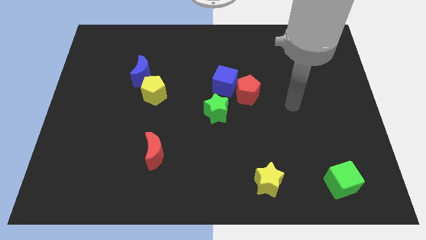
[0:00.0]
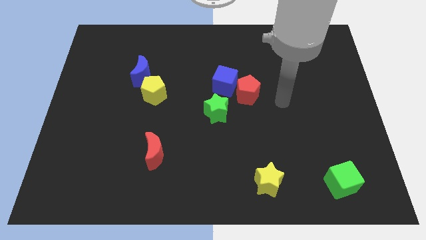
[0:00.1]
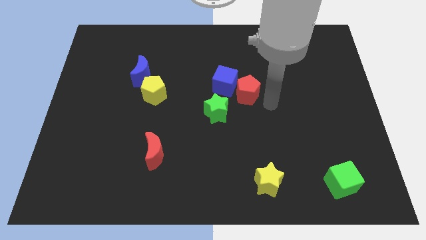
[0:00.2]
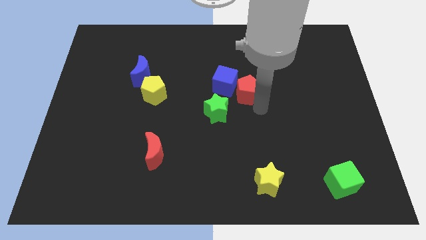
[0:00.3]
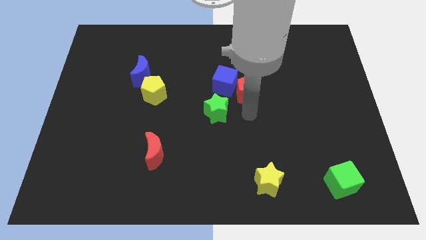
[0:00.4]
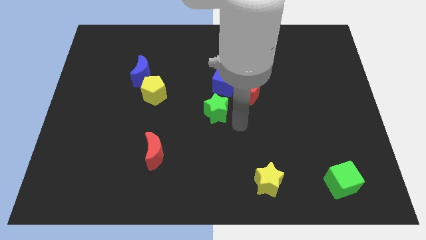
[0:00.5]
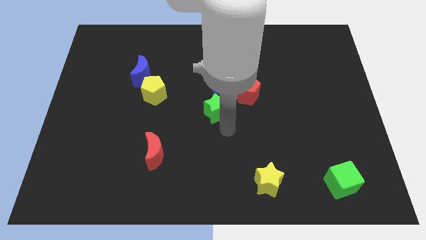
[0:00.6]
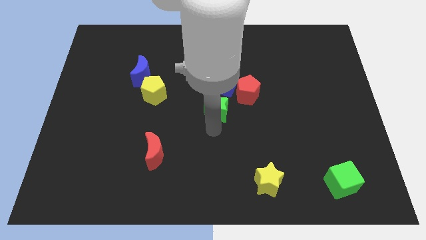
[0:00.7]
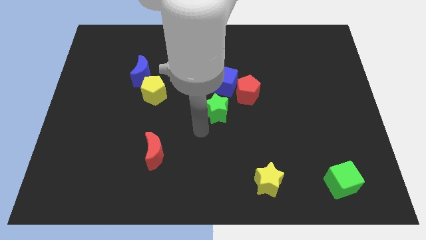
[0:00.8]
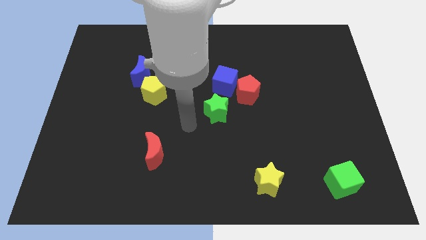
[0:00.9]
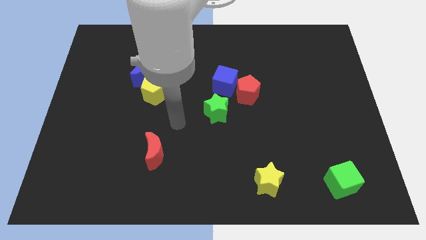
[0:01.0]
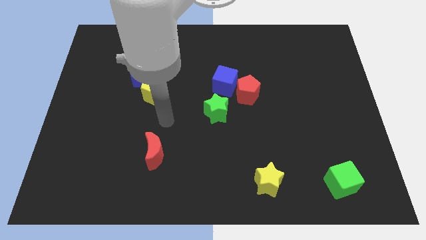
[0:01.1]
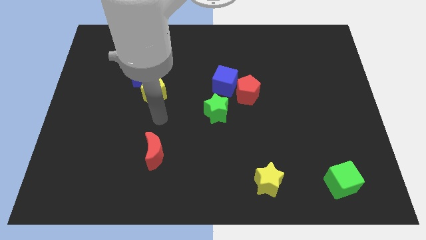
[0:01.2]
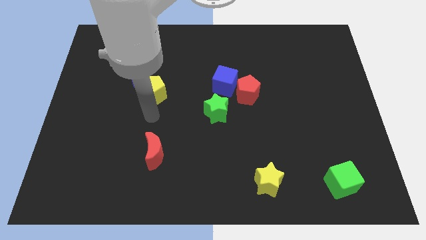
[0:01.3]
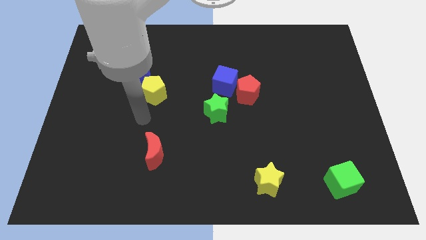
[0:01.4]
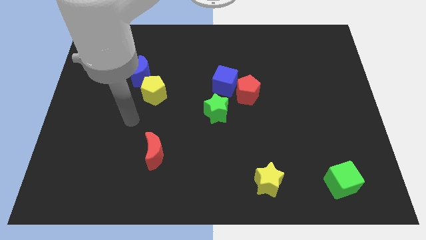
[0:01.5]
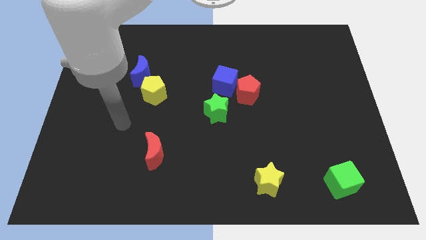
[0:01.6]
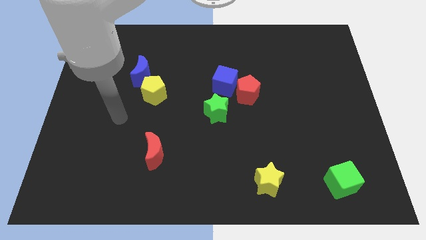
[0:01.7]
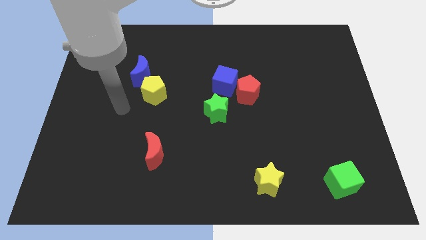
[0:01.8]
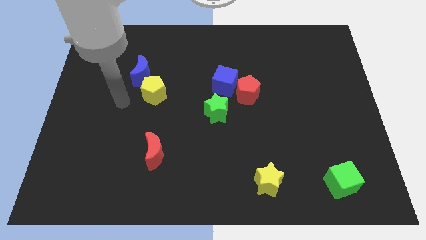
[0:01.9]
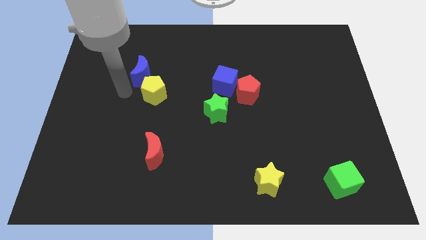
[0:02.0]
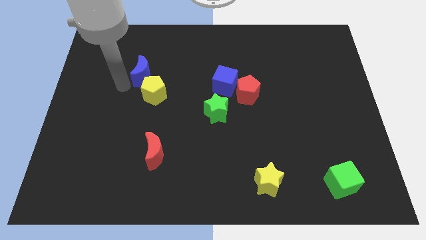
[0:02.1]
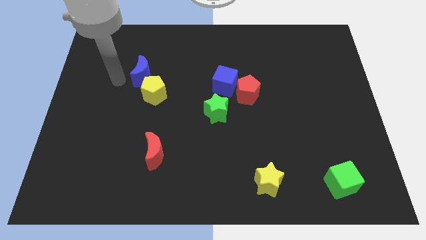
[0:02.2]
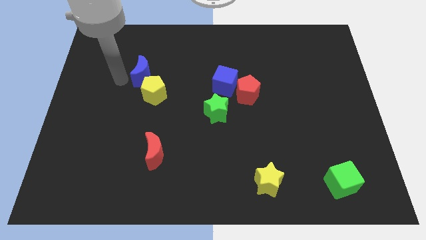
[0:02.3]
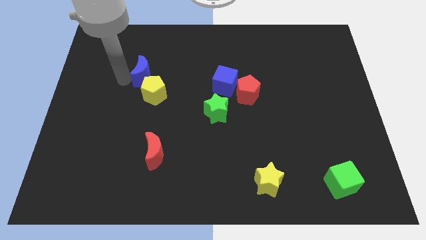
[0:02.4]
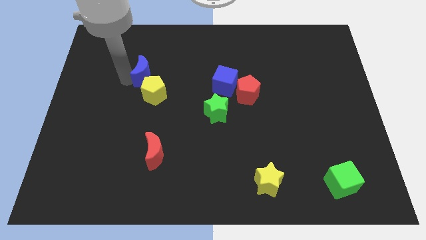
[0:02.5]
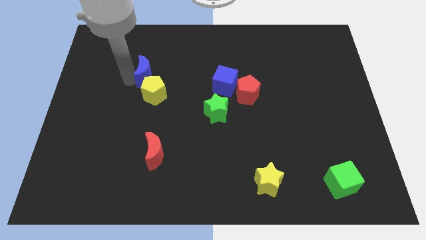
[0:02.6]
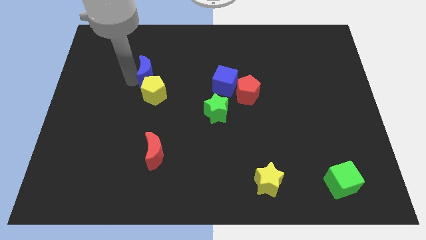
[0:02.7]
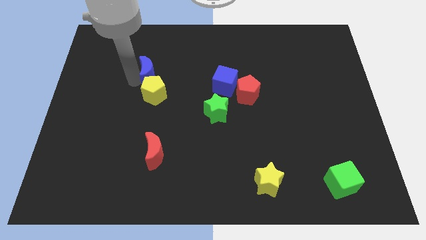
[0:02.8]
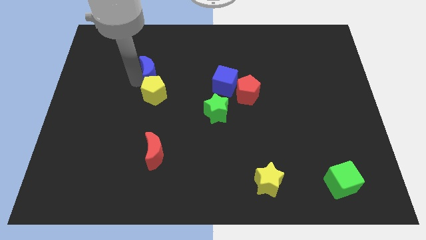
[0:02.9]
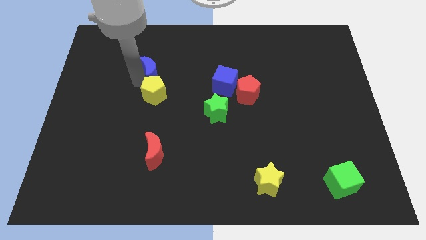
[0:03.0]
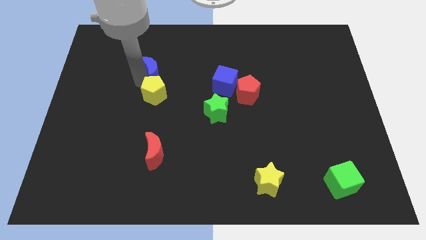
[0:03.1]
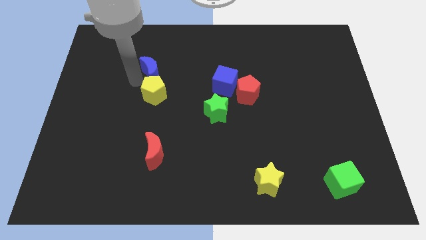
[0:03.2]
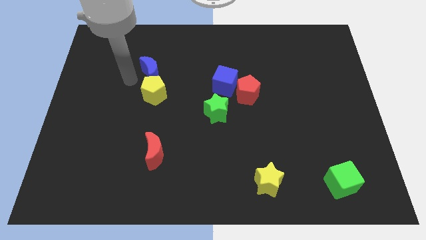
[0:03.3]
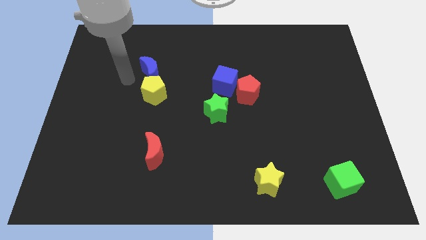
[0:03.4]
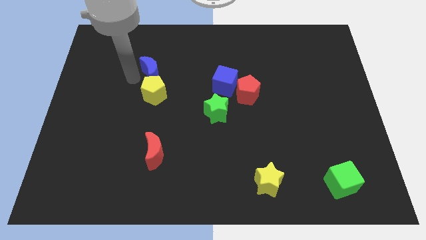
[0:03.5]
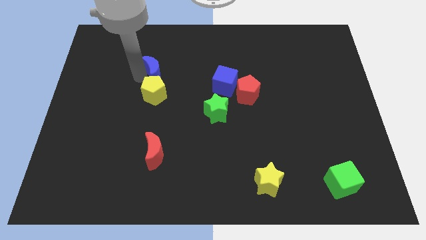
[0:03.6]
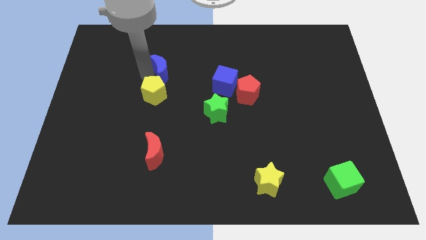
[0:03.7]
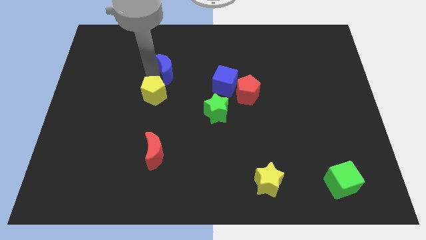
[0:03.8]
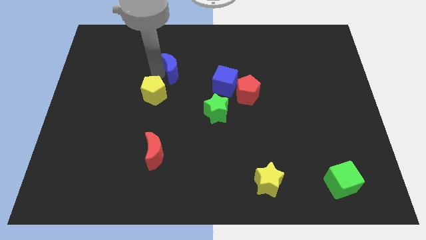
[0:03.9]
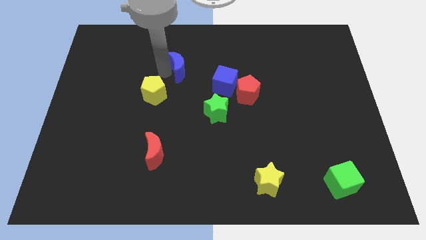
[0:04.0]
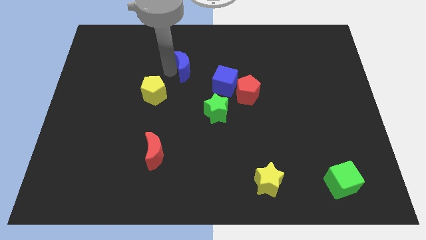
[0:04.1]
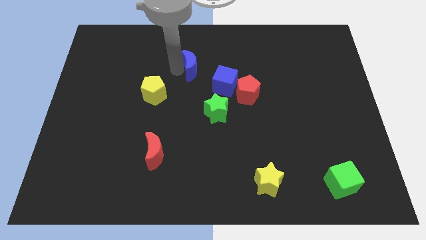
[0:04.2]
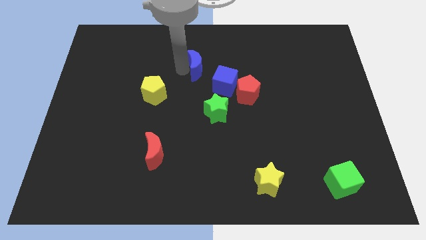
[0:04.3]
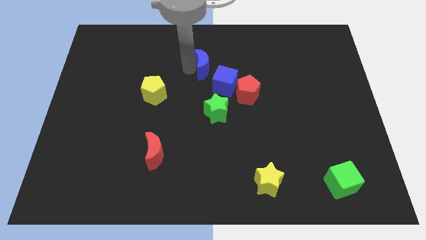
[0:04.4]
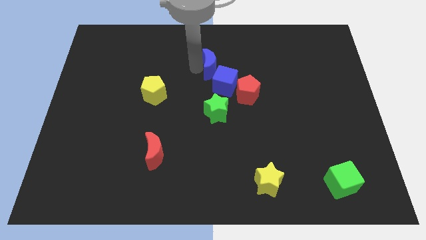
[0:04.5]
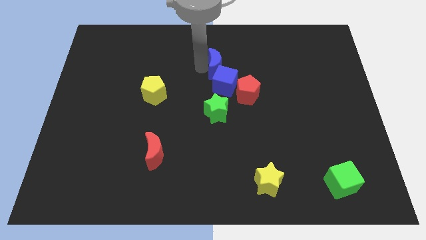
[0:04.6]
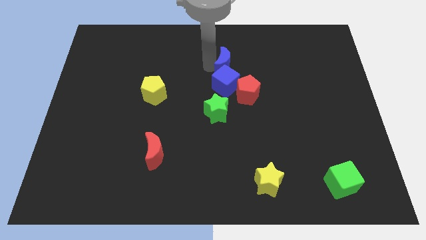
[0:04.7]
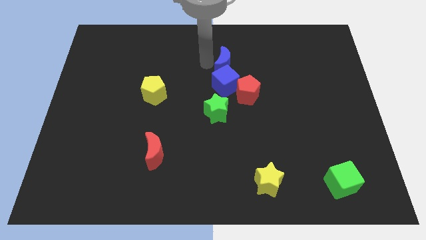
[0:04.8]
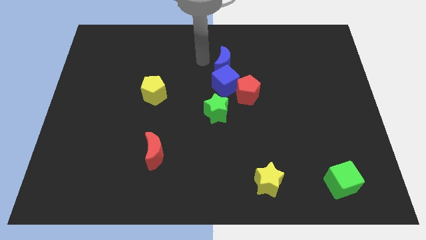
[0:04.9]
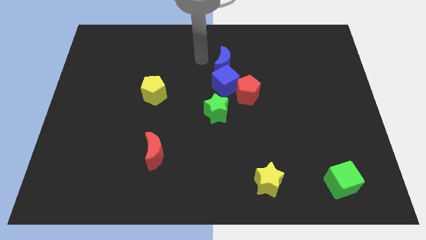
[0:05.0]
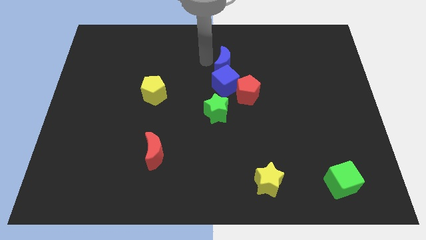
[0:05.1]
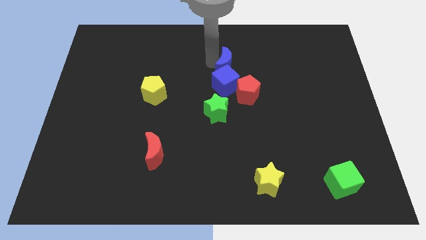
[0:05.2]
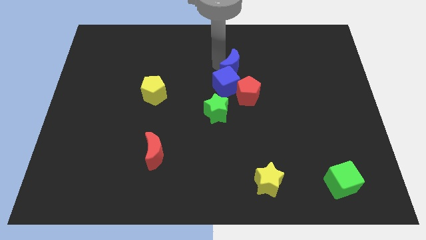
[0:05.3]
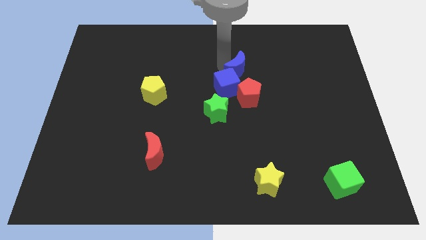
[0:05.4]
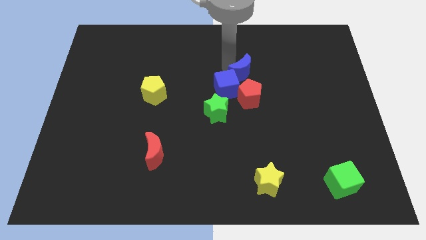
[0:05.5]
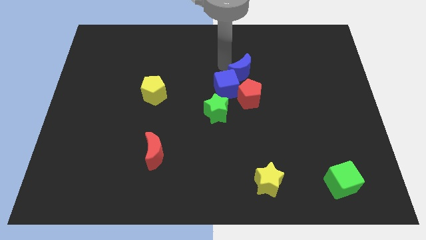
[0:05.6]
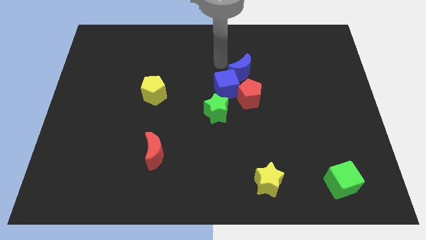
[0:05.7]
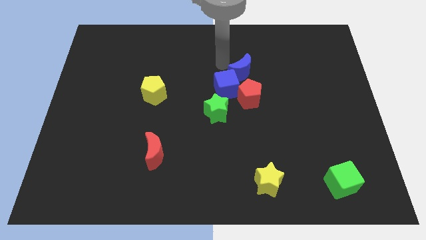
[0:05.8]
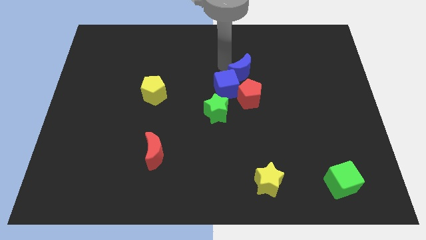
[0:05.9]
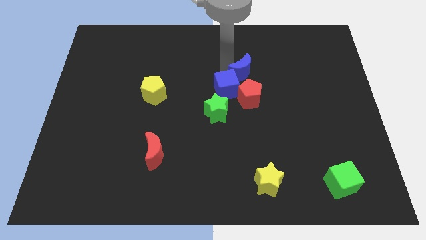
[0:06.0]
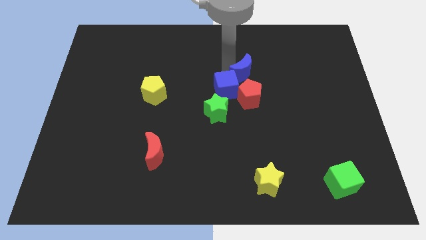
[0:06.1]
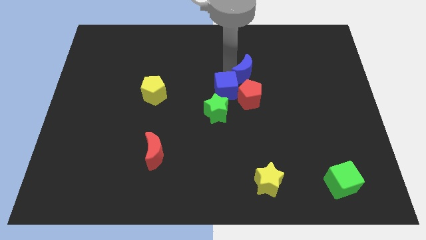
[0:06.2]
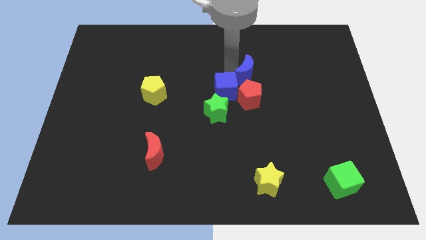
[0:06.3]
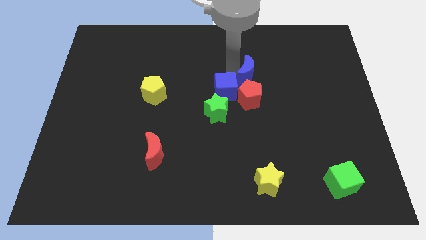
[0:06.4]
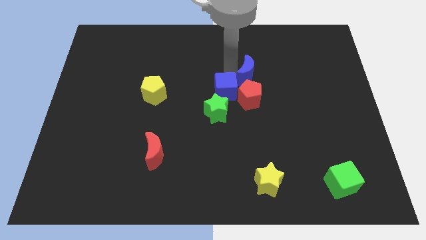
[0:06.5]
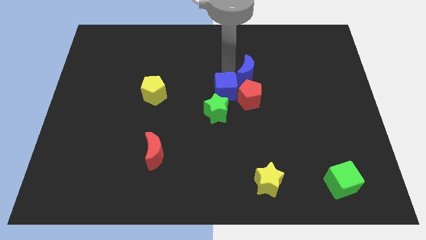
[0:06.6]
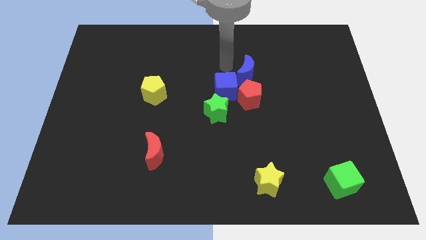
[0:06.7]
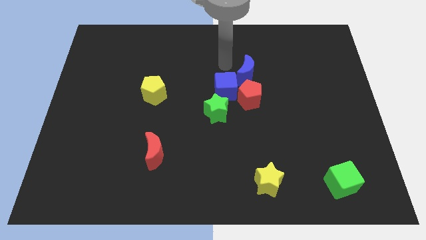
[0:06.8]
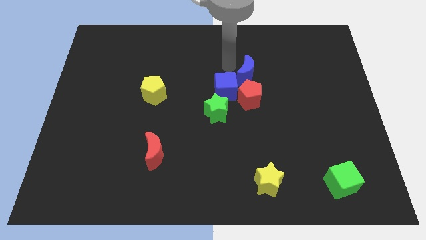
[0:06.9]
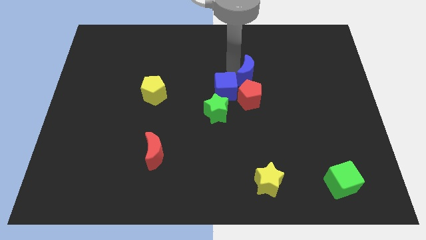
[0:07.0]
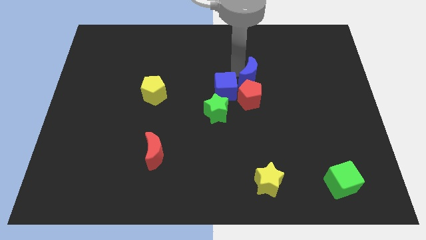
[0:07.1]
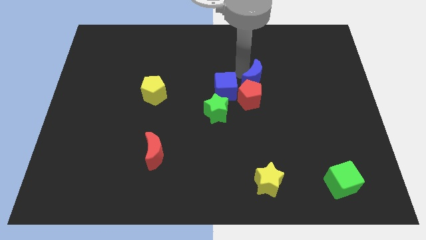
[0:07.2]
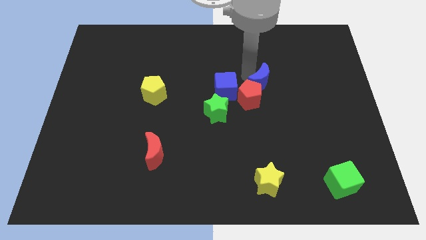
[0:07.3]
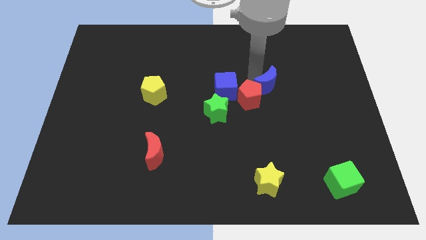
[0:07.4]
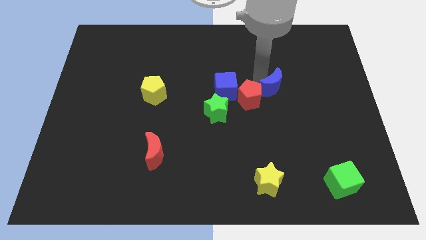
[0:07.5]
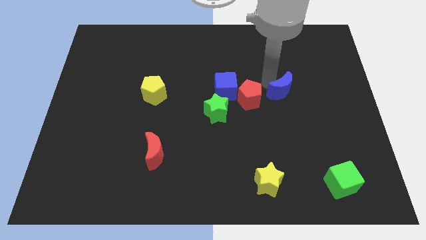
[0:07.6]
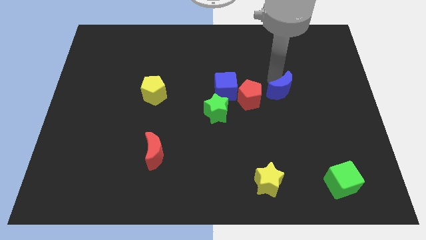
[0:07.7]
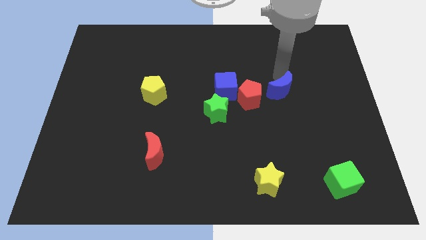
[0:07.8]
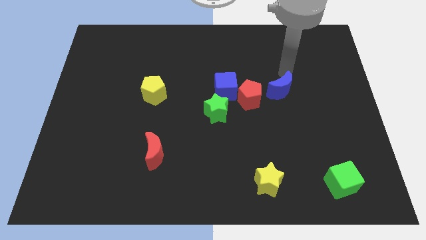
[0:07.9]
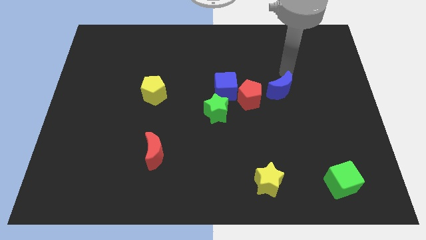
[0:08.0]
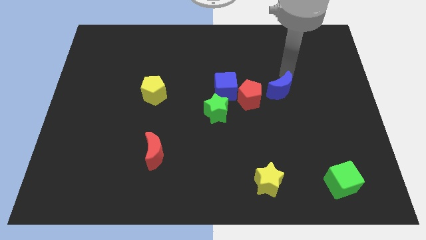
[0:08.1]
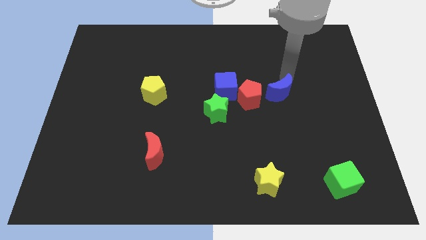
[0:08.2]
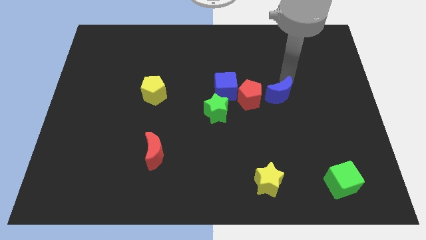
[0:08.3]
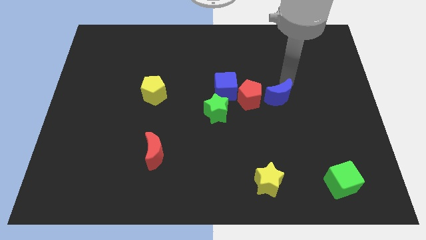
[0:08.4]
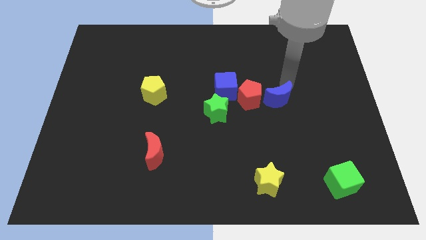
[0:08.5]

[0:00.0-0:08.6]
slide the blue moon diagonally down and to the right of the red pentagon
